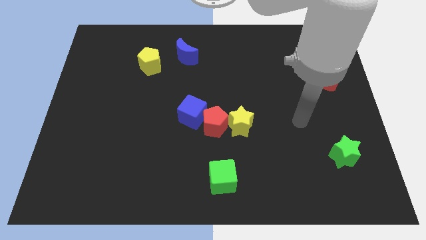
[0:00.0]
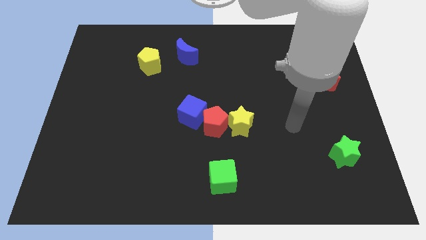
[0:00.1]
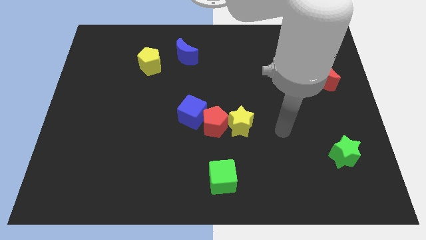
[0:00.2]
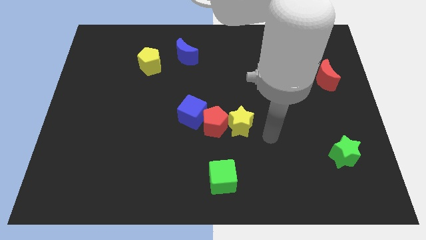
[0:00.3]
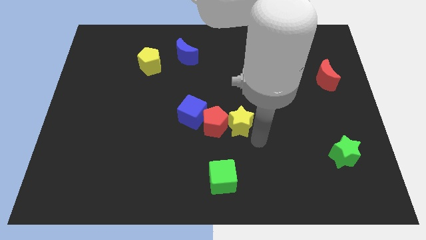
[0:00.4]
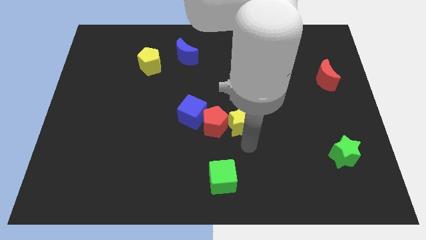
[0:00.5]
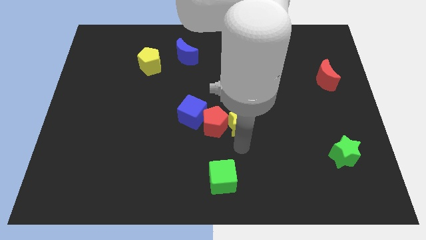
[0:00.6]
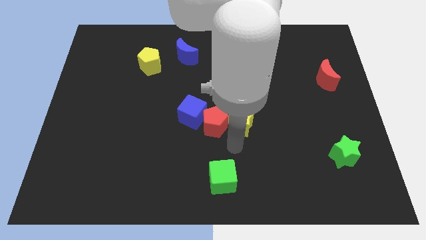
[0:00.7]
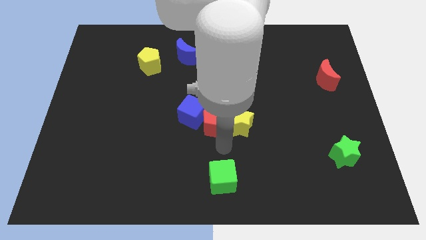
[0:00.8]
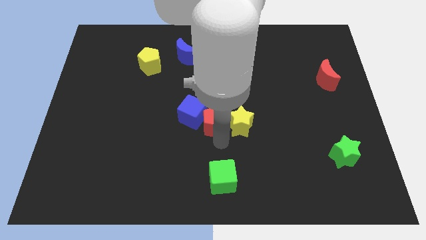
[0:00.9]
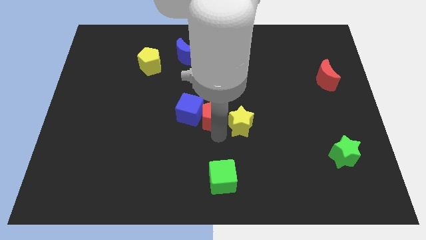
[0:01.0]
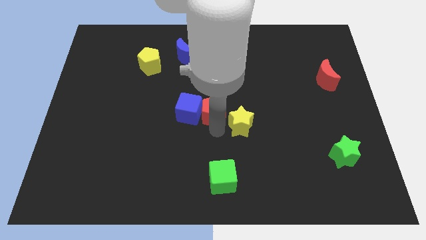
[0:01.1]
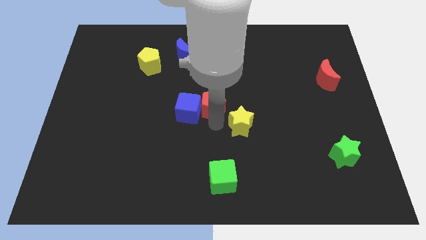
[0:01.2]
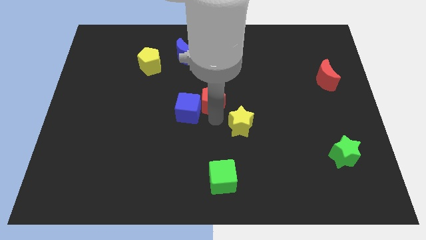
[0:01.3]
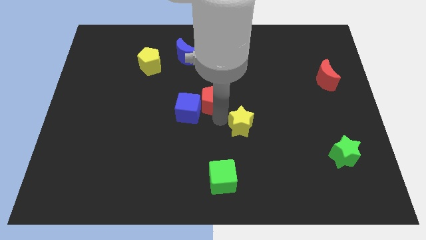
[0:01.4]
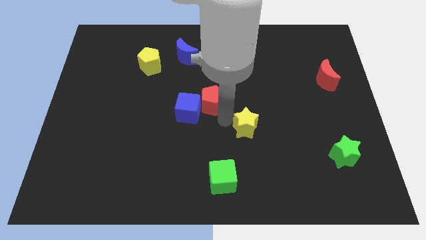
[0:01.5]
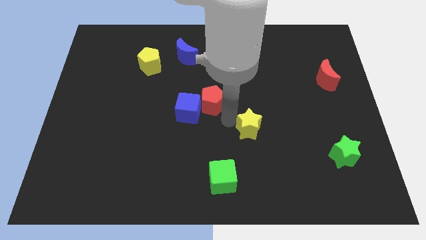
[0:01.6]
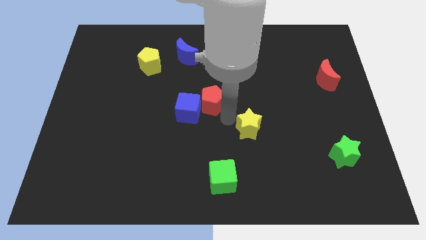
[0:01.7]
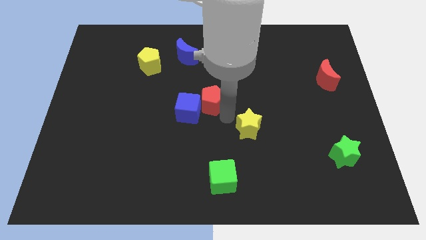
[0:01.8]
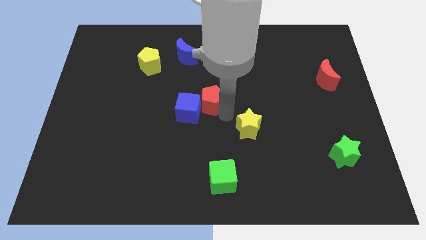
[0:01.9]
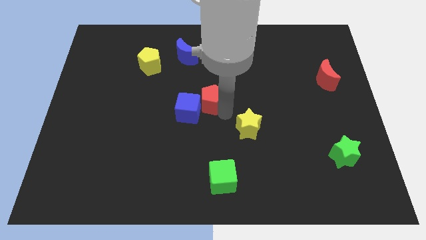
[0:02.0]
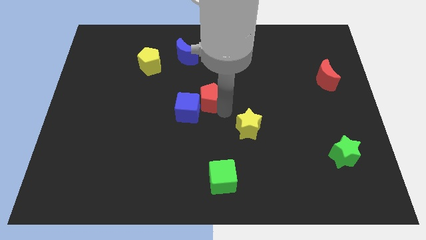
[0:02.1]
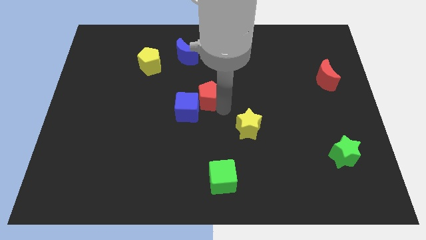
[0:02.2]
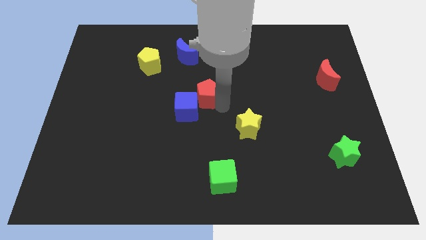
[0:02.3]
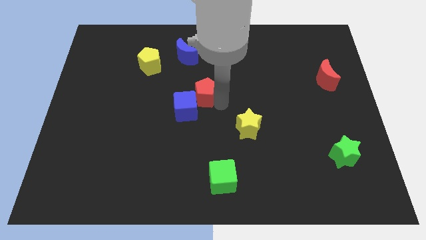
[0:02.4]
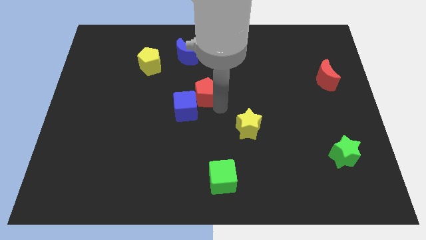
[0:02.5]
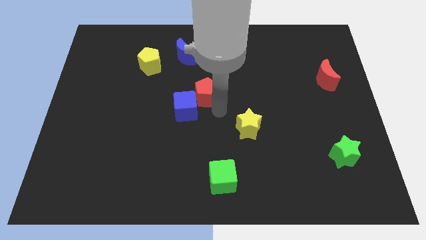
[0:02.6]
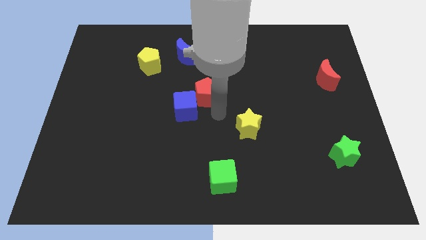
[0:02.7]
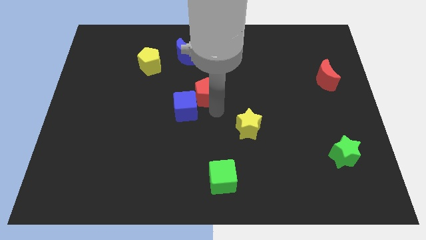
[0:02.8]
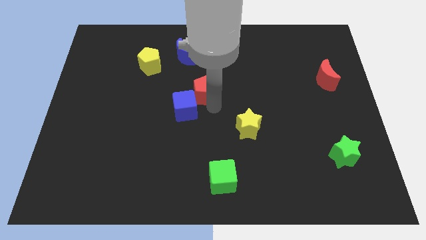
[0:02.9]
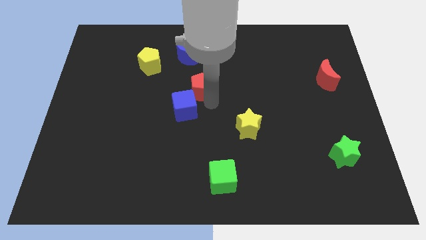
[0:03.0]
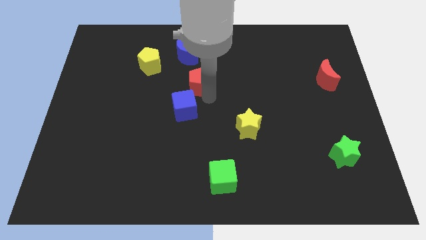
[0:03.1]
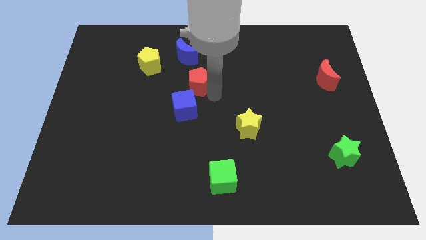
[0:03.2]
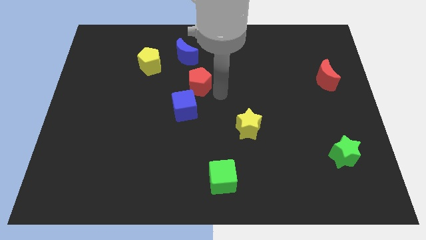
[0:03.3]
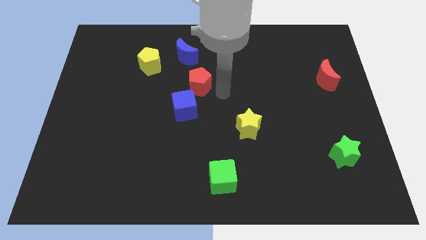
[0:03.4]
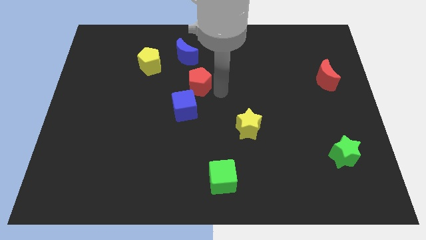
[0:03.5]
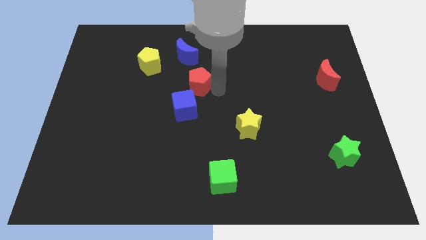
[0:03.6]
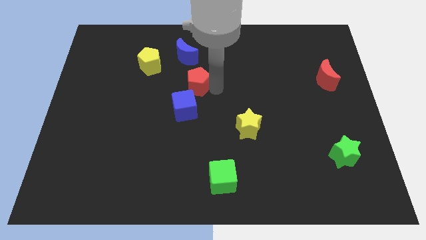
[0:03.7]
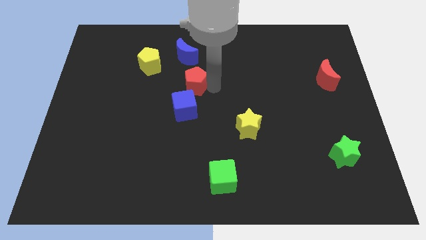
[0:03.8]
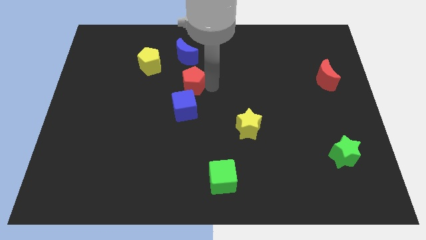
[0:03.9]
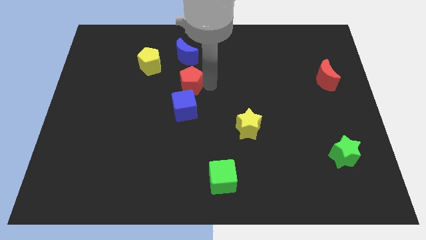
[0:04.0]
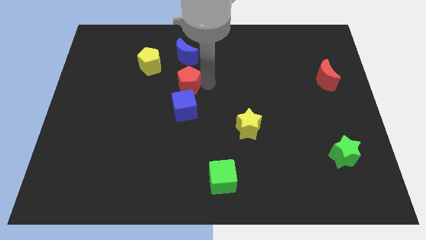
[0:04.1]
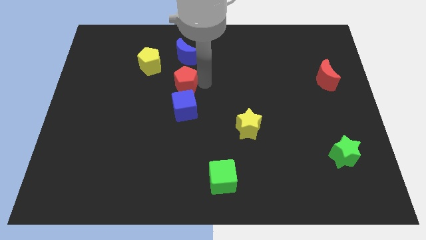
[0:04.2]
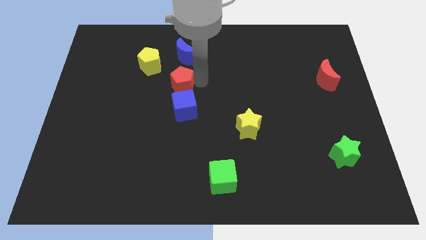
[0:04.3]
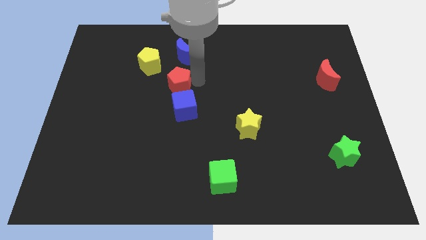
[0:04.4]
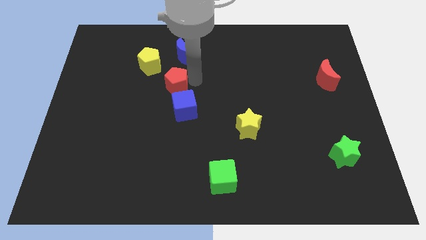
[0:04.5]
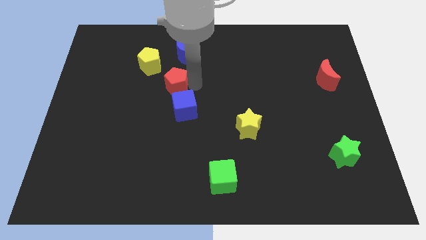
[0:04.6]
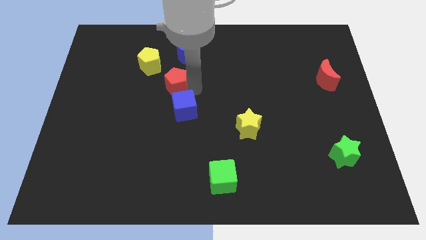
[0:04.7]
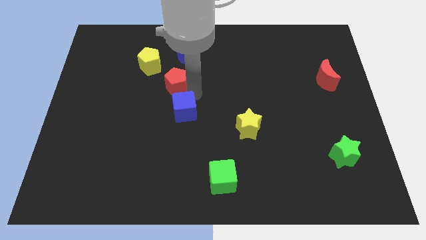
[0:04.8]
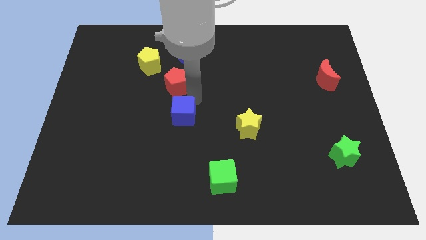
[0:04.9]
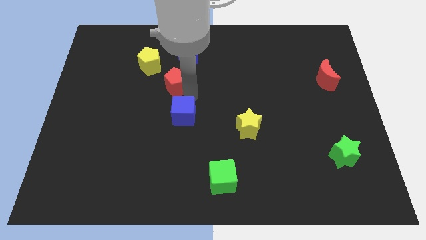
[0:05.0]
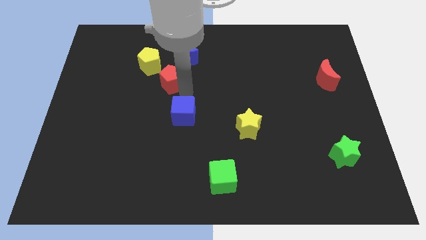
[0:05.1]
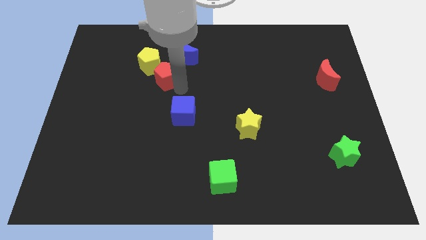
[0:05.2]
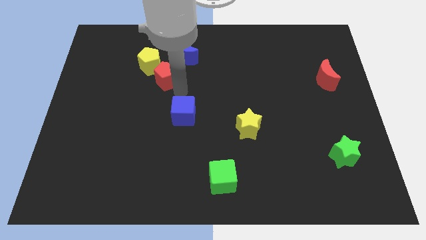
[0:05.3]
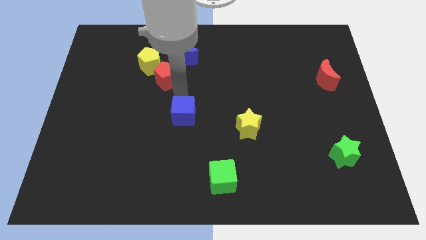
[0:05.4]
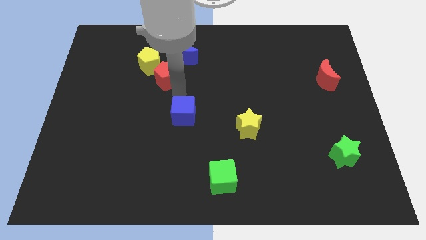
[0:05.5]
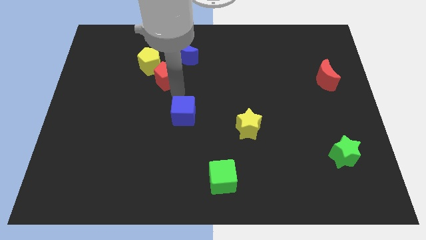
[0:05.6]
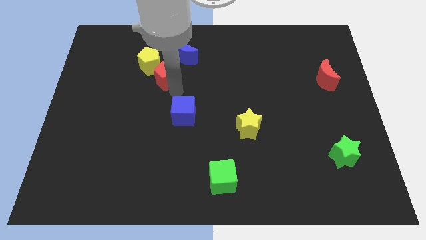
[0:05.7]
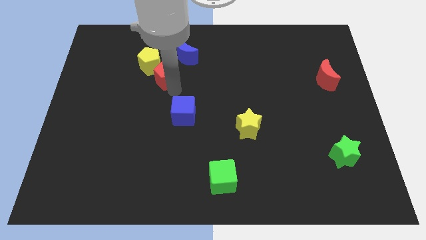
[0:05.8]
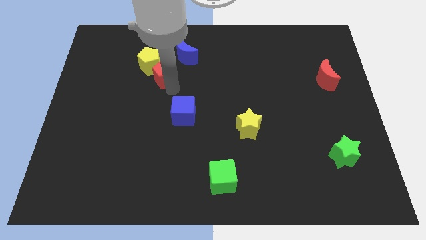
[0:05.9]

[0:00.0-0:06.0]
put the red pentagon close to the yellow pentagon

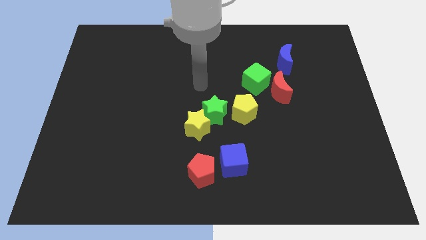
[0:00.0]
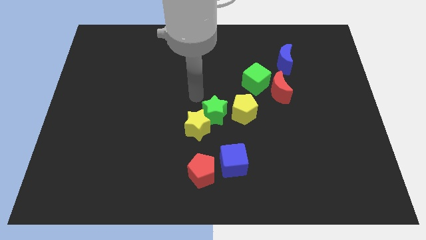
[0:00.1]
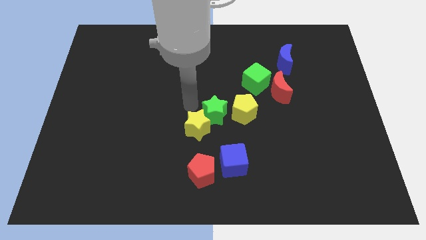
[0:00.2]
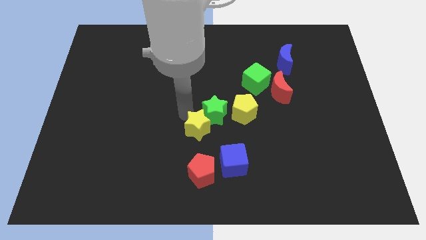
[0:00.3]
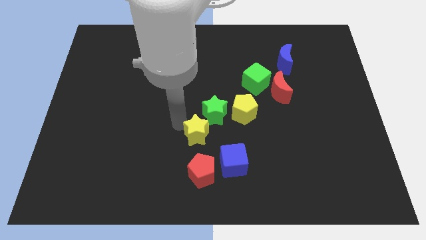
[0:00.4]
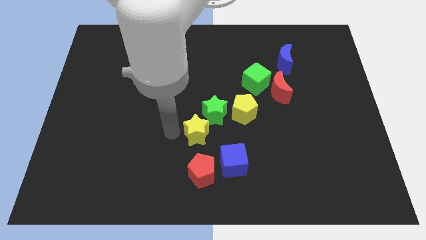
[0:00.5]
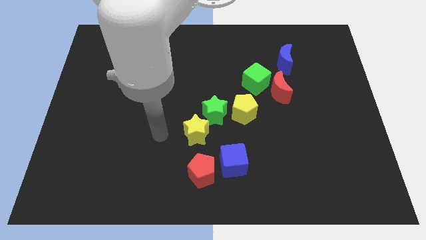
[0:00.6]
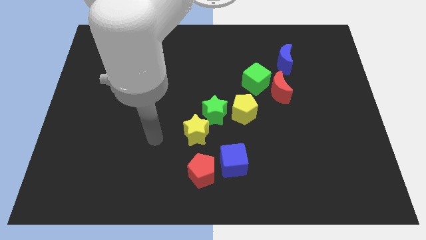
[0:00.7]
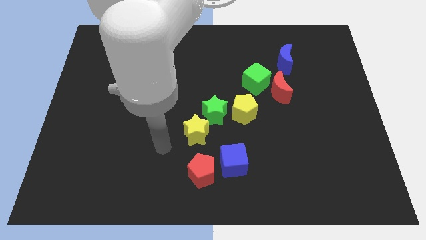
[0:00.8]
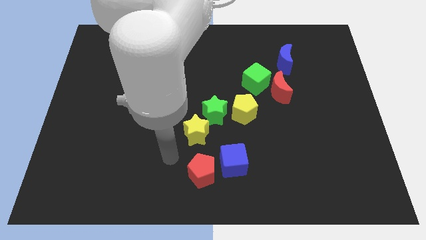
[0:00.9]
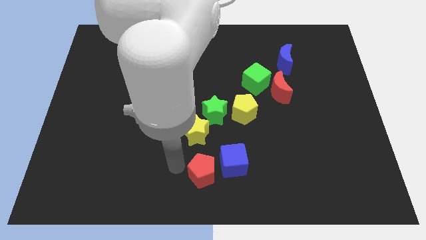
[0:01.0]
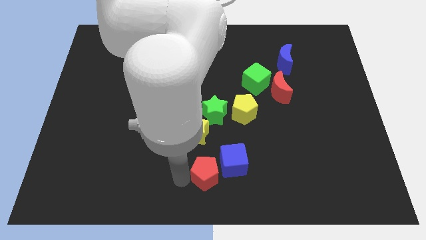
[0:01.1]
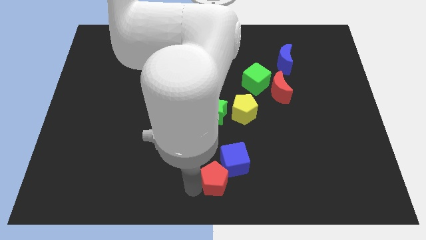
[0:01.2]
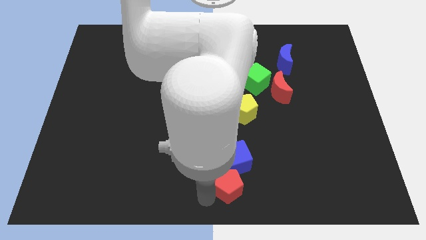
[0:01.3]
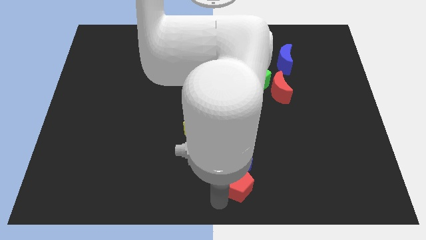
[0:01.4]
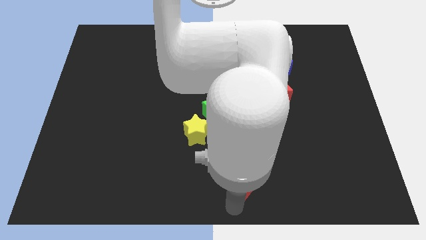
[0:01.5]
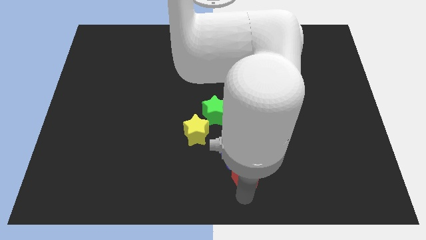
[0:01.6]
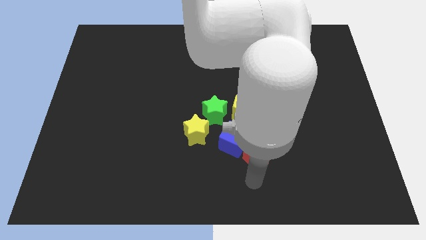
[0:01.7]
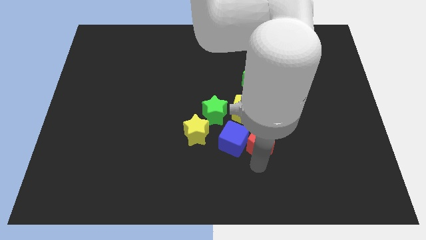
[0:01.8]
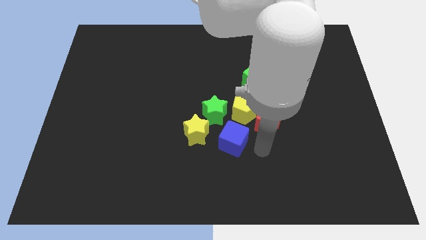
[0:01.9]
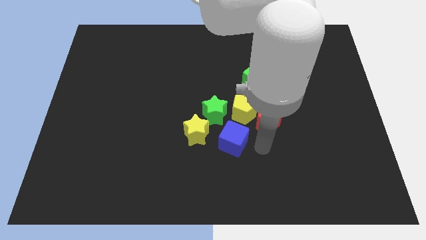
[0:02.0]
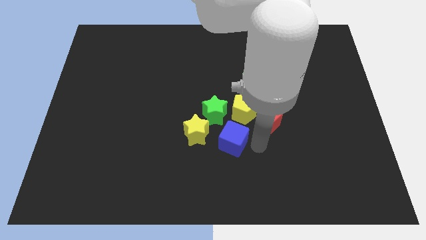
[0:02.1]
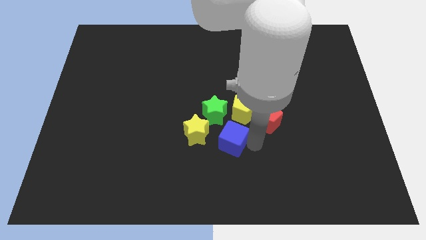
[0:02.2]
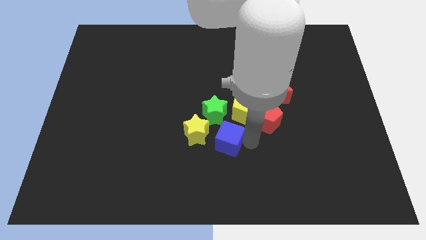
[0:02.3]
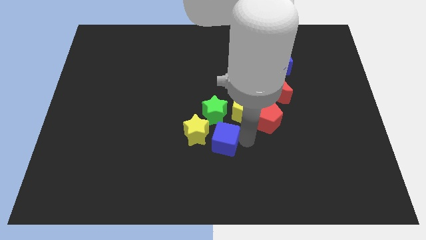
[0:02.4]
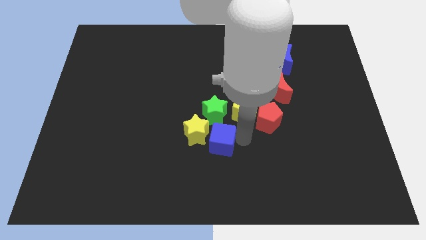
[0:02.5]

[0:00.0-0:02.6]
put the blue cube to the yellow star
